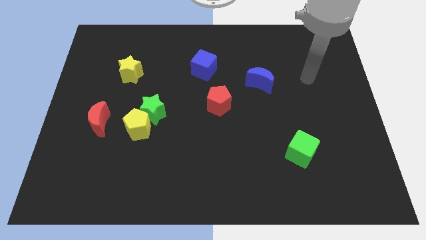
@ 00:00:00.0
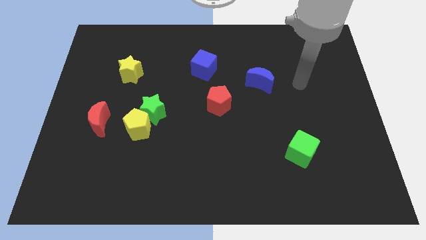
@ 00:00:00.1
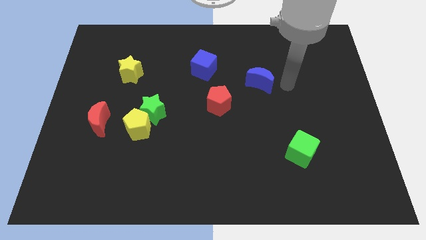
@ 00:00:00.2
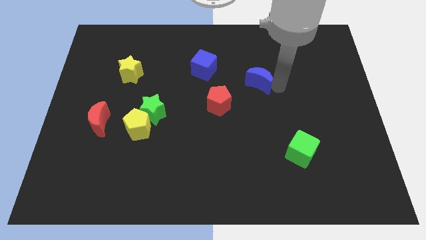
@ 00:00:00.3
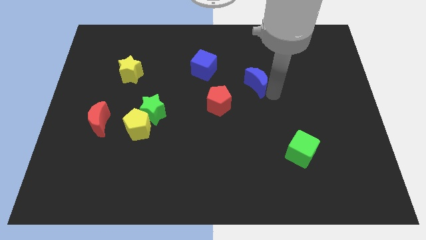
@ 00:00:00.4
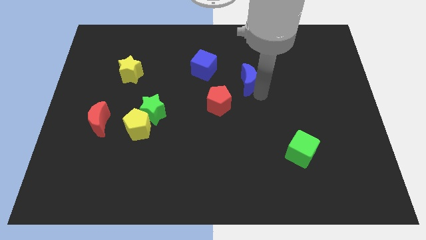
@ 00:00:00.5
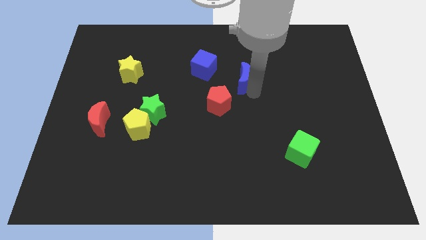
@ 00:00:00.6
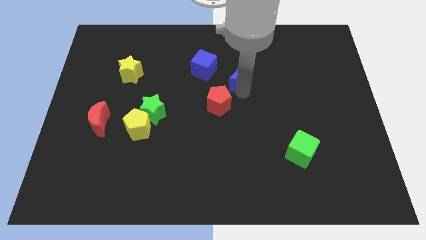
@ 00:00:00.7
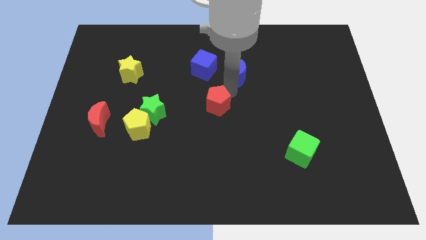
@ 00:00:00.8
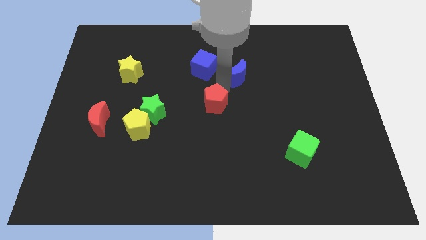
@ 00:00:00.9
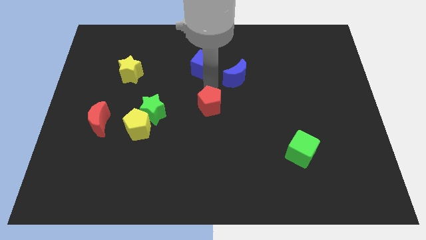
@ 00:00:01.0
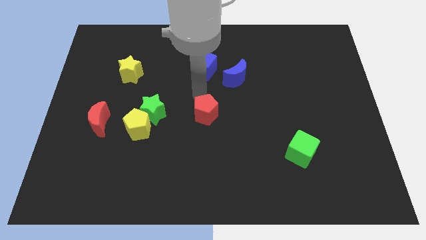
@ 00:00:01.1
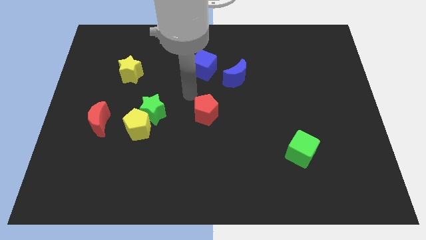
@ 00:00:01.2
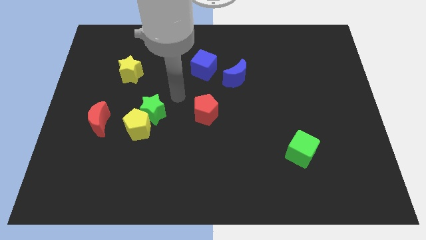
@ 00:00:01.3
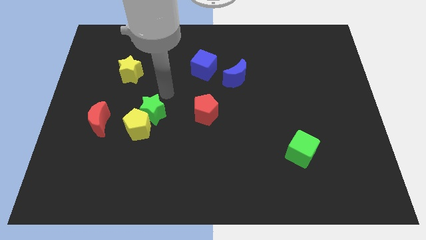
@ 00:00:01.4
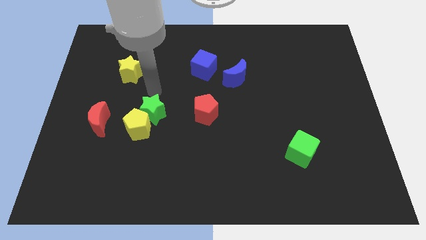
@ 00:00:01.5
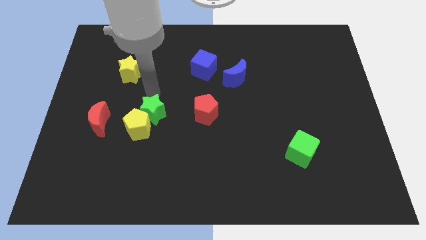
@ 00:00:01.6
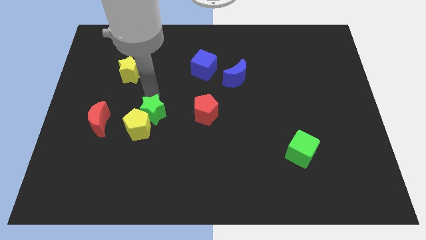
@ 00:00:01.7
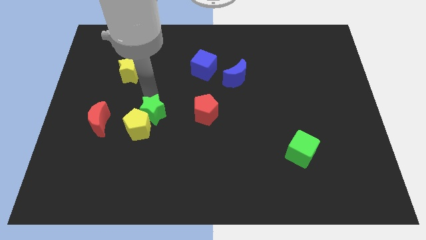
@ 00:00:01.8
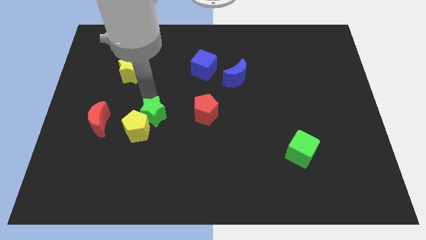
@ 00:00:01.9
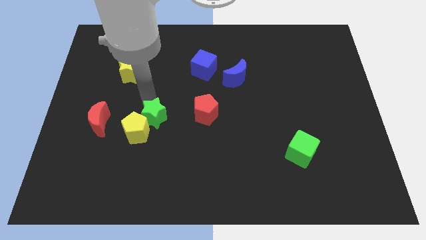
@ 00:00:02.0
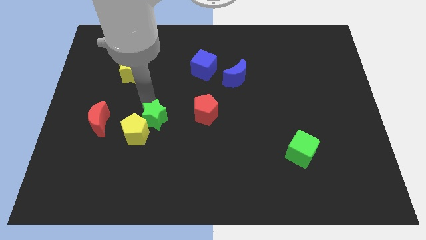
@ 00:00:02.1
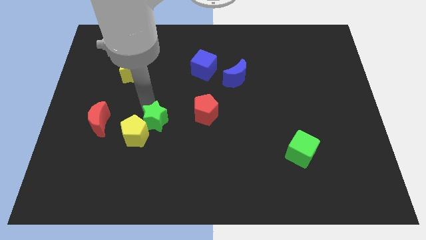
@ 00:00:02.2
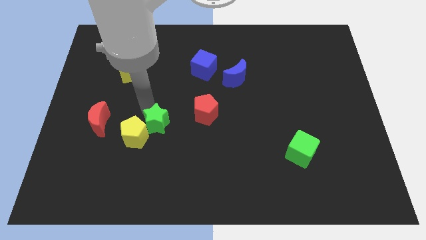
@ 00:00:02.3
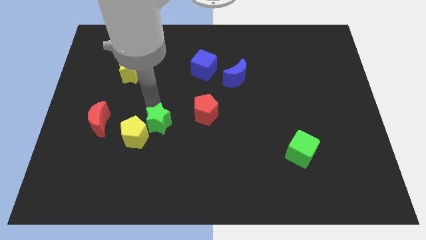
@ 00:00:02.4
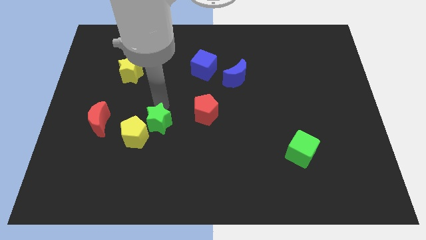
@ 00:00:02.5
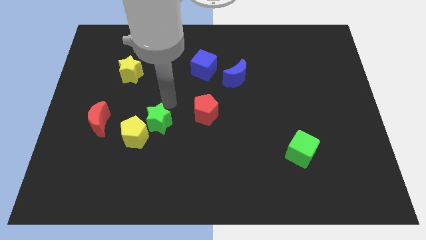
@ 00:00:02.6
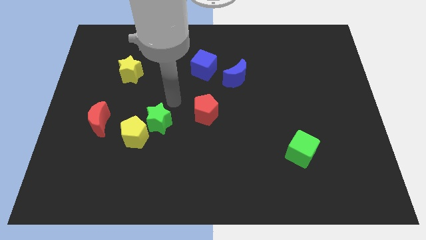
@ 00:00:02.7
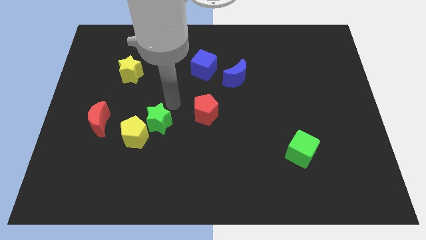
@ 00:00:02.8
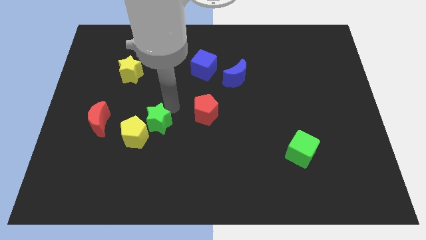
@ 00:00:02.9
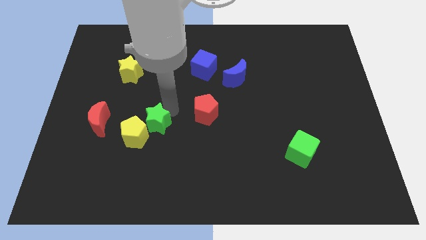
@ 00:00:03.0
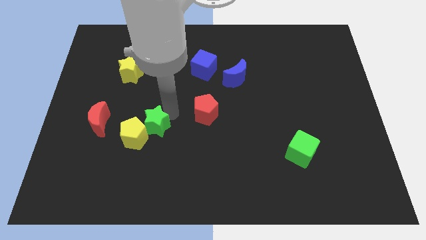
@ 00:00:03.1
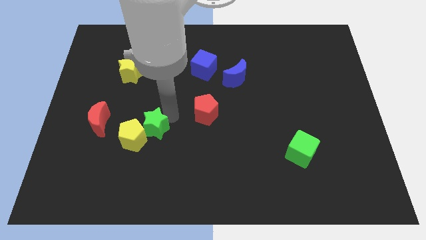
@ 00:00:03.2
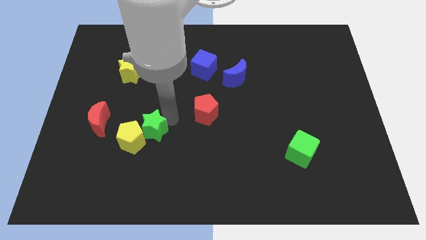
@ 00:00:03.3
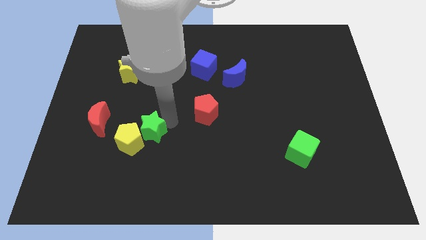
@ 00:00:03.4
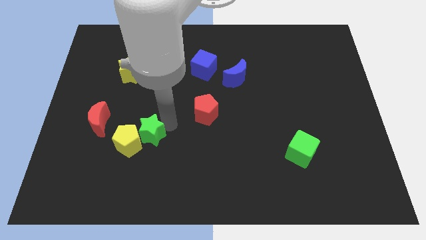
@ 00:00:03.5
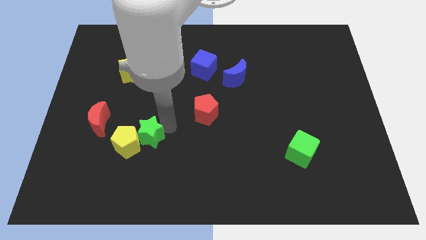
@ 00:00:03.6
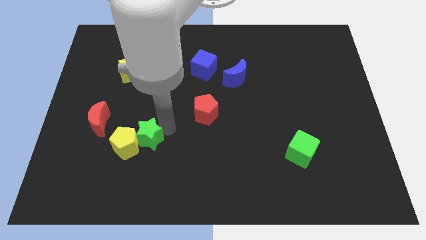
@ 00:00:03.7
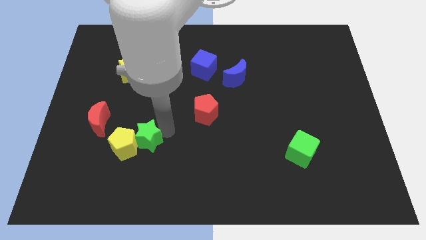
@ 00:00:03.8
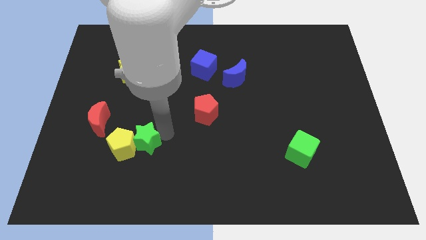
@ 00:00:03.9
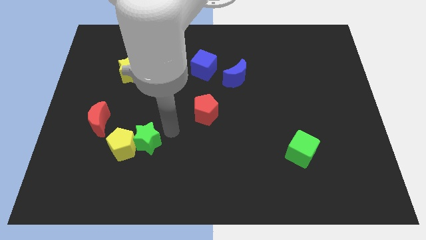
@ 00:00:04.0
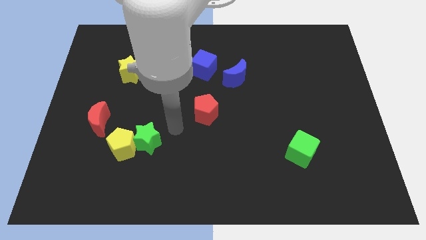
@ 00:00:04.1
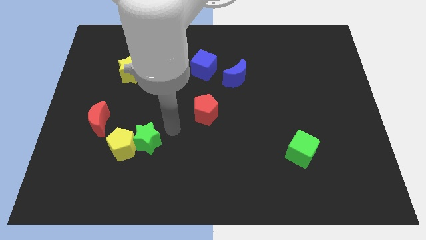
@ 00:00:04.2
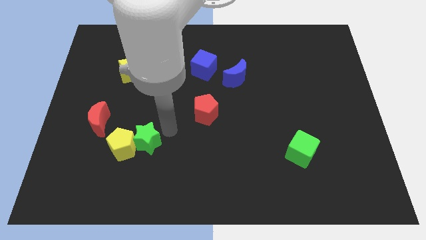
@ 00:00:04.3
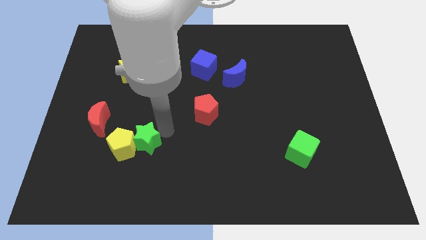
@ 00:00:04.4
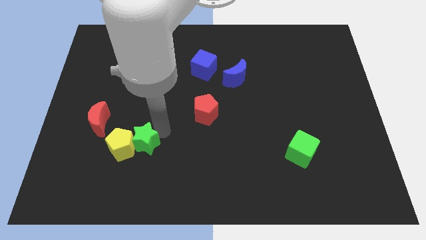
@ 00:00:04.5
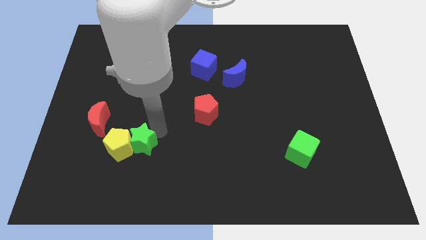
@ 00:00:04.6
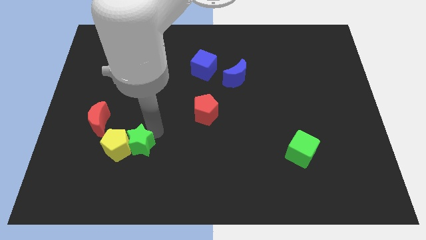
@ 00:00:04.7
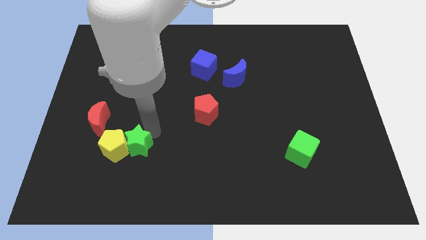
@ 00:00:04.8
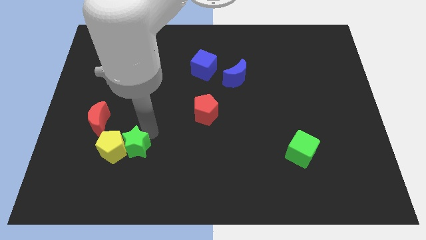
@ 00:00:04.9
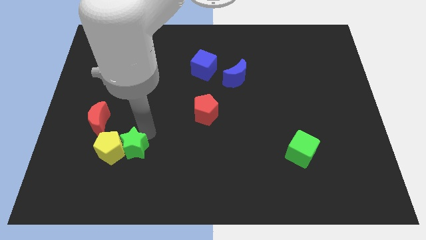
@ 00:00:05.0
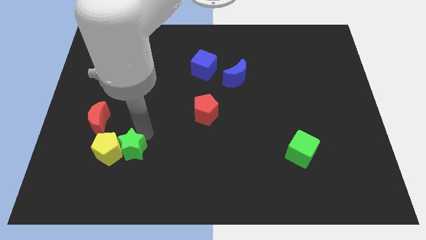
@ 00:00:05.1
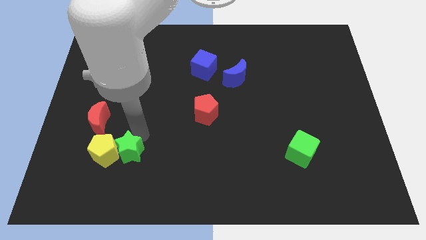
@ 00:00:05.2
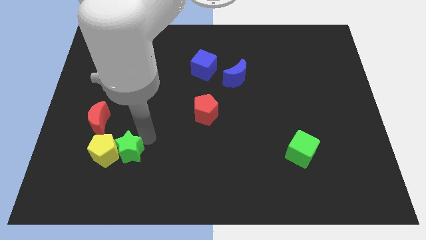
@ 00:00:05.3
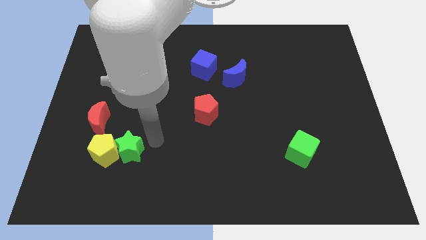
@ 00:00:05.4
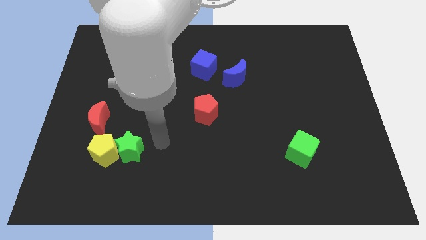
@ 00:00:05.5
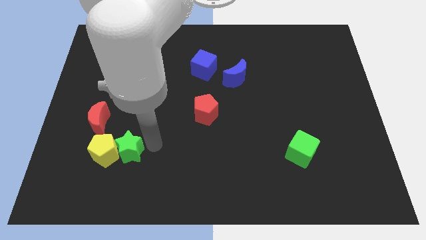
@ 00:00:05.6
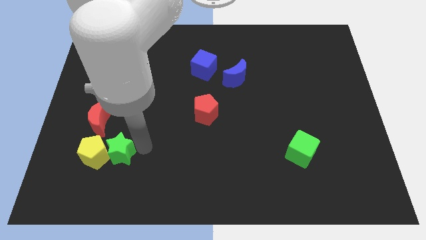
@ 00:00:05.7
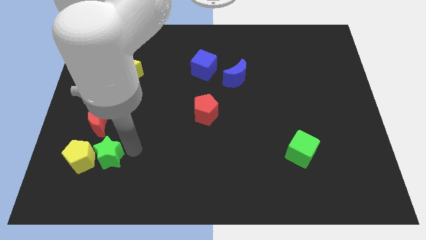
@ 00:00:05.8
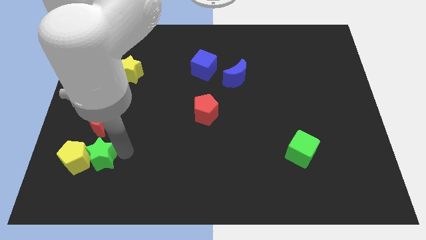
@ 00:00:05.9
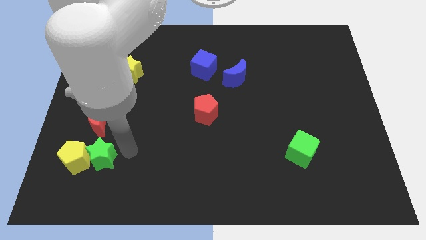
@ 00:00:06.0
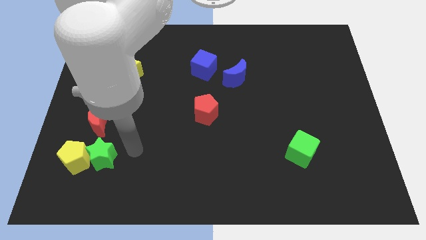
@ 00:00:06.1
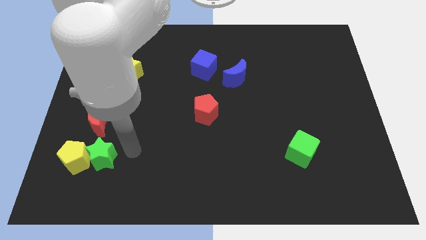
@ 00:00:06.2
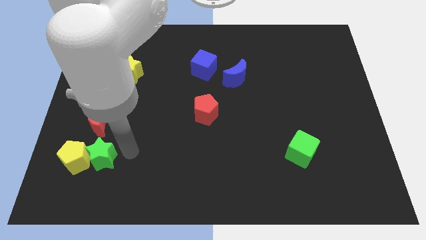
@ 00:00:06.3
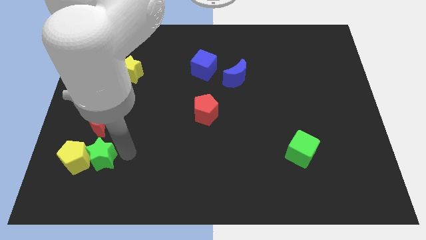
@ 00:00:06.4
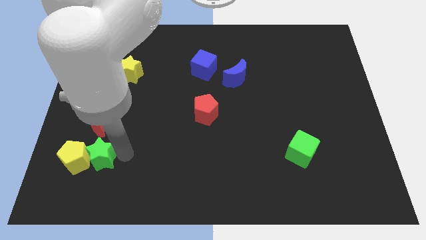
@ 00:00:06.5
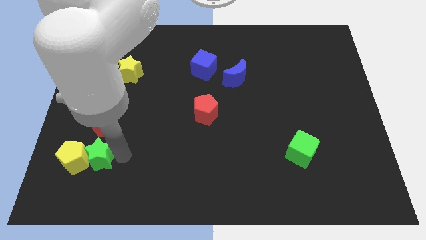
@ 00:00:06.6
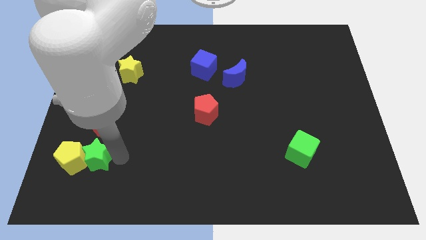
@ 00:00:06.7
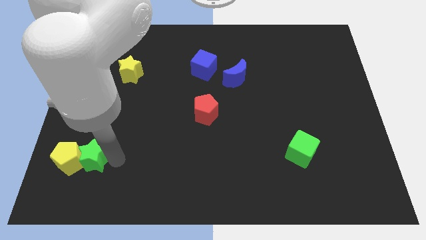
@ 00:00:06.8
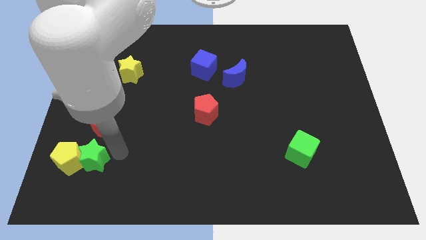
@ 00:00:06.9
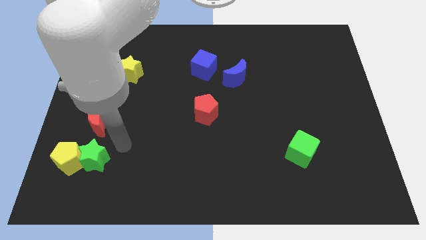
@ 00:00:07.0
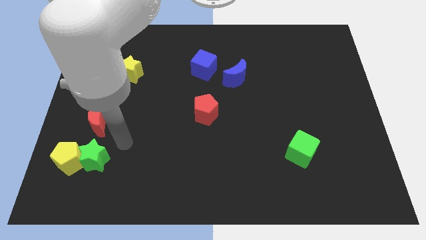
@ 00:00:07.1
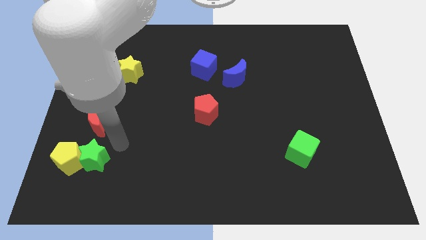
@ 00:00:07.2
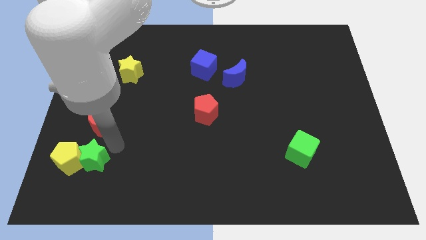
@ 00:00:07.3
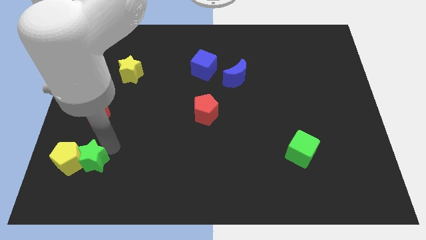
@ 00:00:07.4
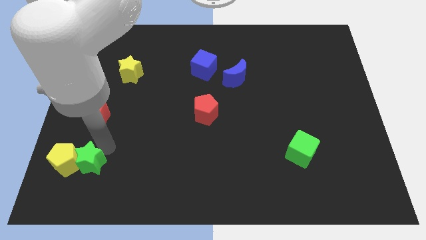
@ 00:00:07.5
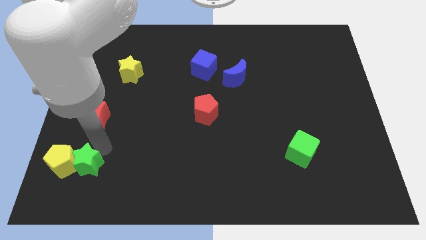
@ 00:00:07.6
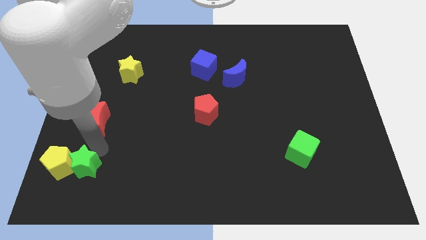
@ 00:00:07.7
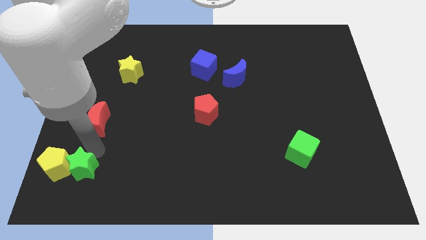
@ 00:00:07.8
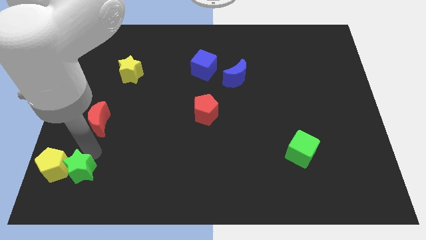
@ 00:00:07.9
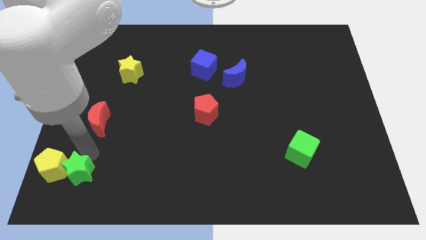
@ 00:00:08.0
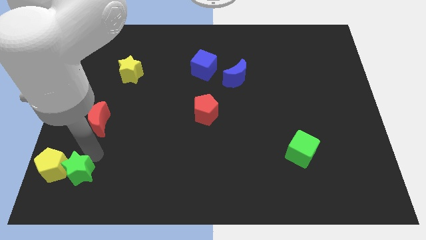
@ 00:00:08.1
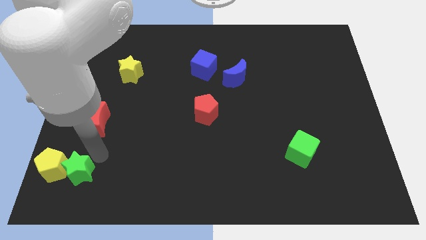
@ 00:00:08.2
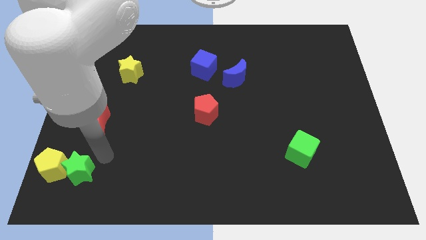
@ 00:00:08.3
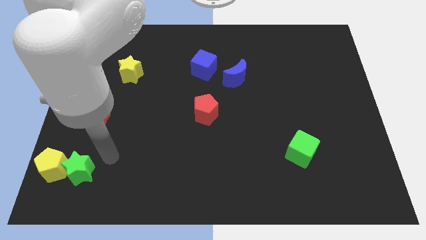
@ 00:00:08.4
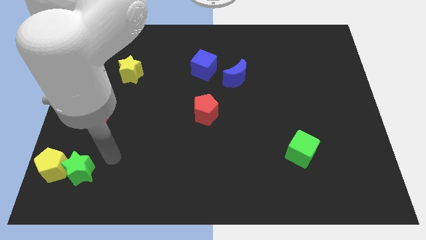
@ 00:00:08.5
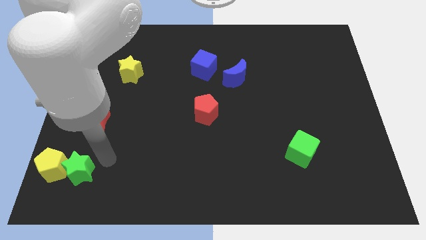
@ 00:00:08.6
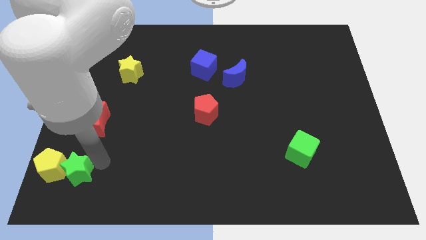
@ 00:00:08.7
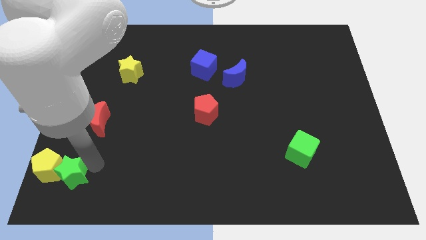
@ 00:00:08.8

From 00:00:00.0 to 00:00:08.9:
put the green star to the bottom left
